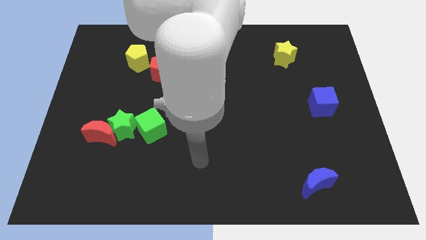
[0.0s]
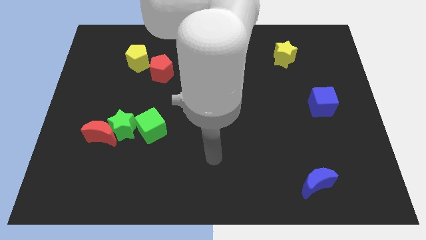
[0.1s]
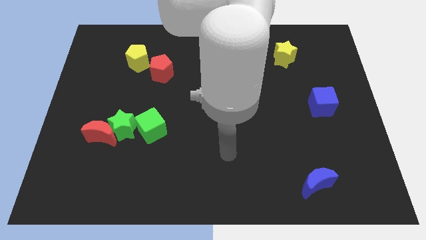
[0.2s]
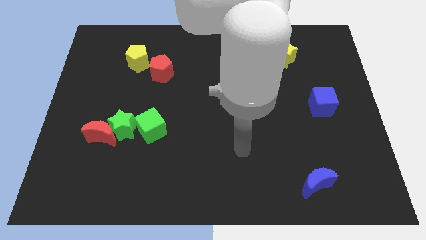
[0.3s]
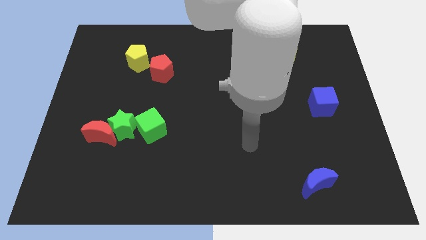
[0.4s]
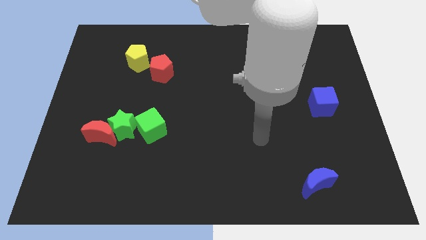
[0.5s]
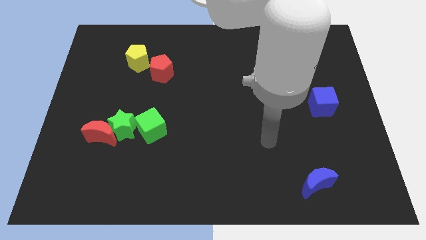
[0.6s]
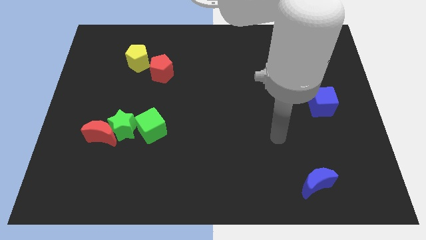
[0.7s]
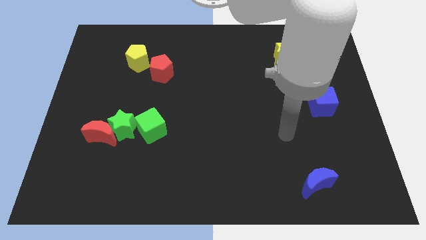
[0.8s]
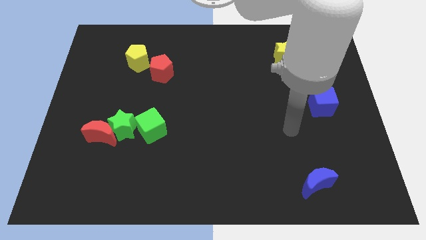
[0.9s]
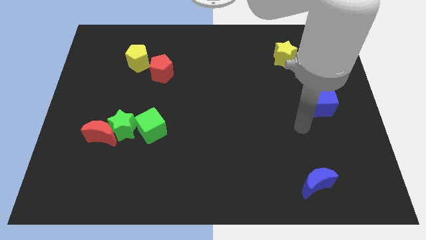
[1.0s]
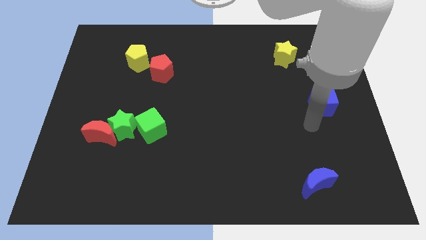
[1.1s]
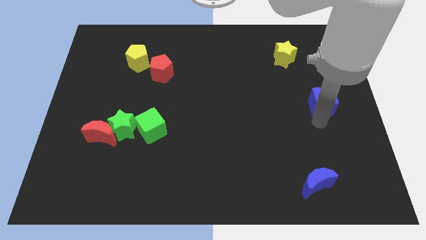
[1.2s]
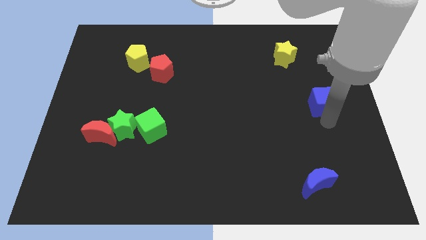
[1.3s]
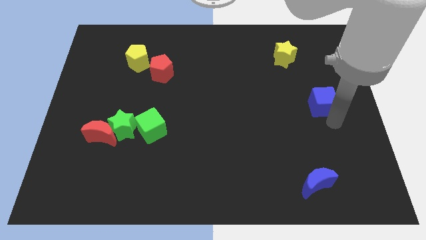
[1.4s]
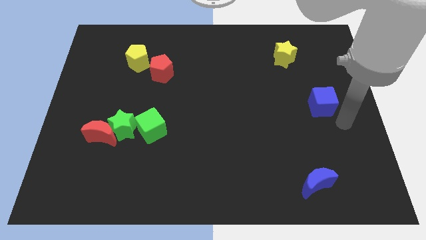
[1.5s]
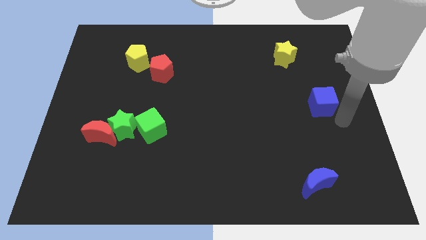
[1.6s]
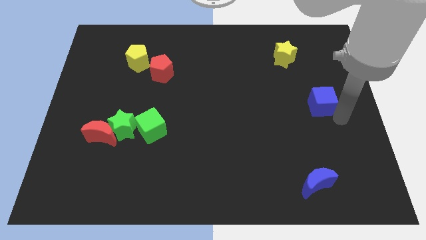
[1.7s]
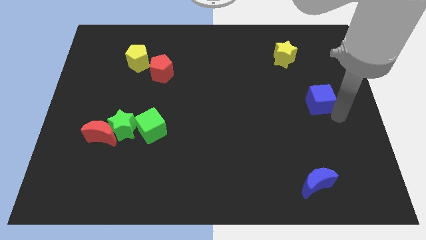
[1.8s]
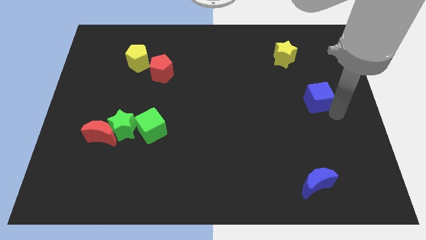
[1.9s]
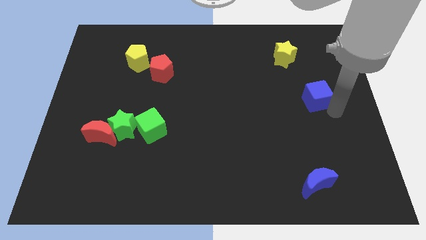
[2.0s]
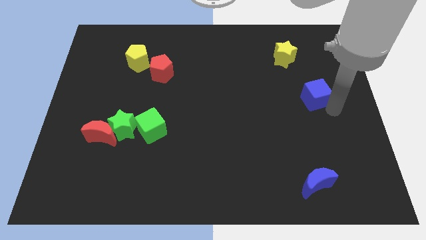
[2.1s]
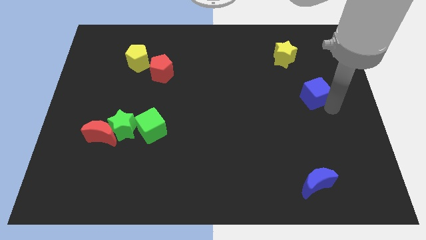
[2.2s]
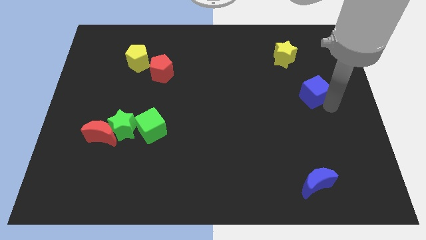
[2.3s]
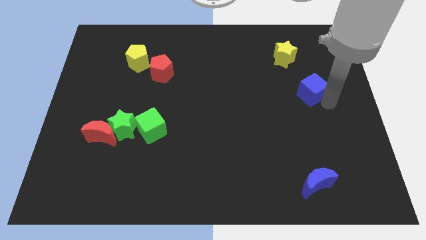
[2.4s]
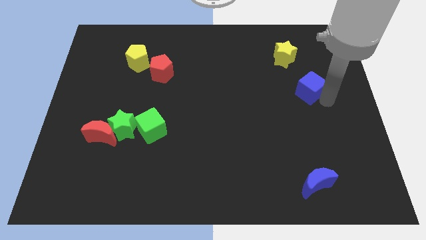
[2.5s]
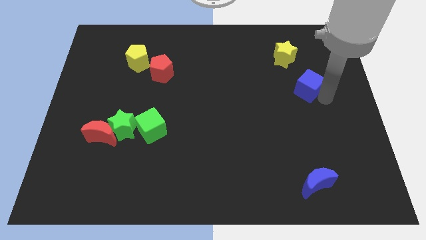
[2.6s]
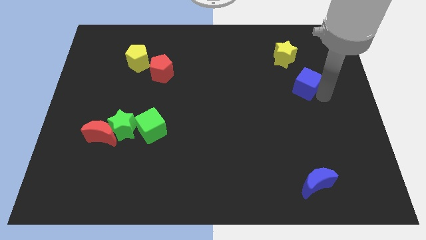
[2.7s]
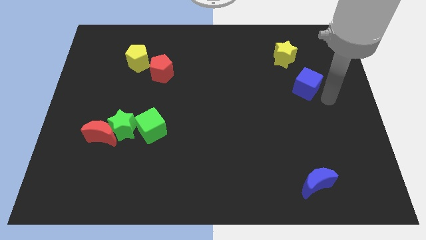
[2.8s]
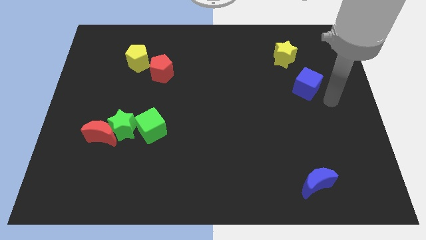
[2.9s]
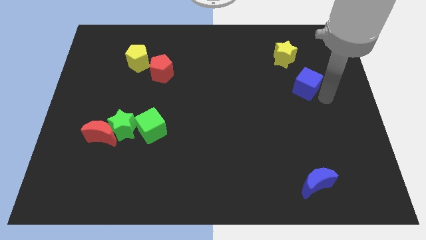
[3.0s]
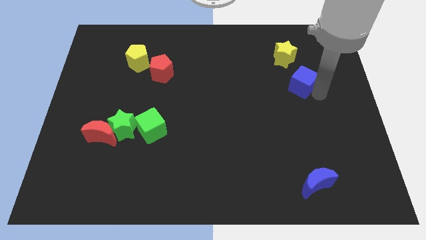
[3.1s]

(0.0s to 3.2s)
push the blue cube slightly up and then to the left

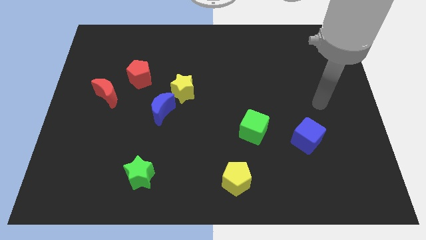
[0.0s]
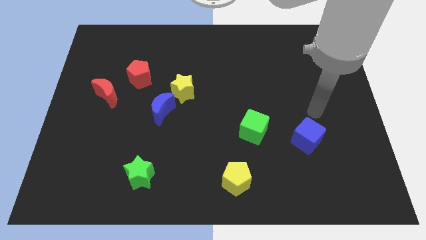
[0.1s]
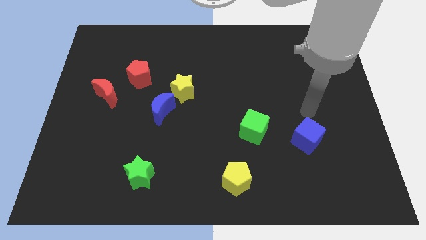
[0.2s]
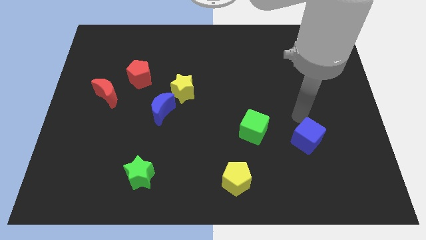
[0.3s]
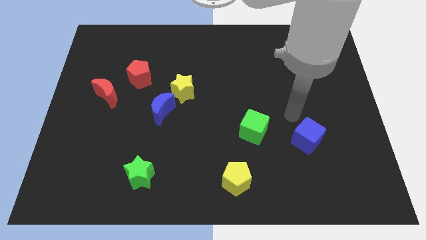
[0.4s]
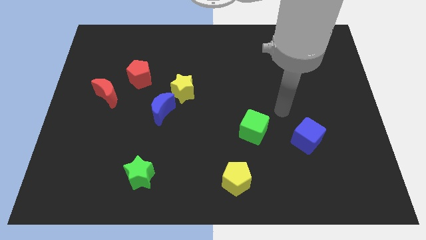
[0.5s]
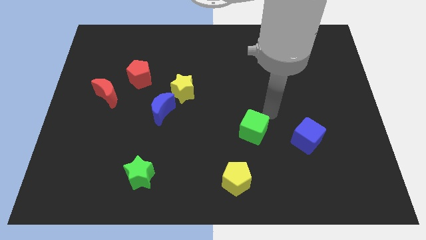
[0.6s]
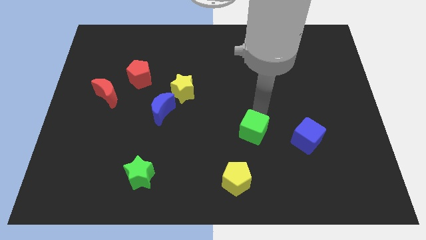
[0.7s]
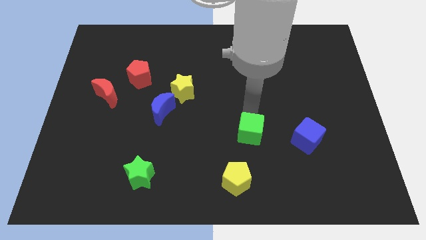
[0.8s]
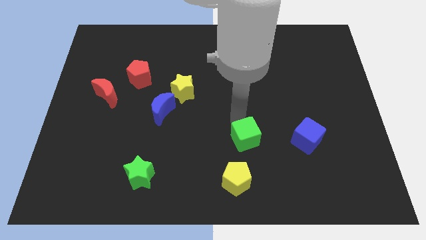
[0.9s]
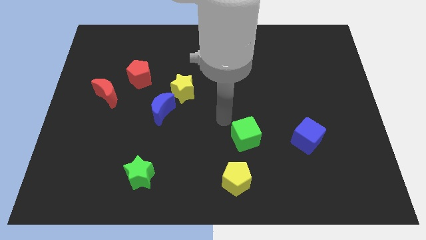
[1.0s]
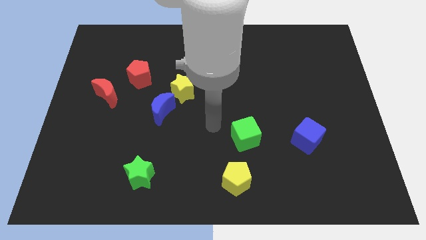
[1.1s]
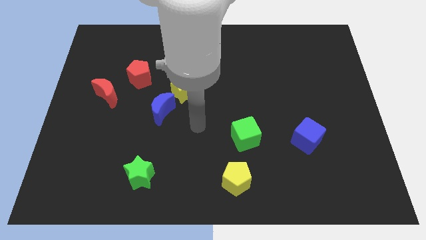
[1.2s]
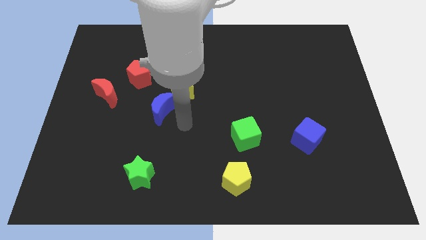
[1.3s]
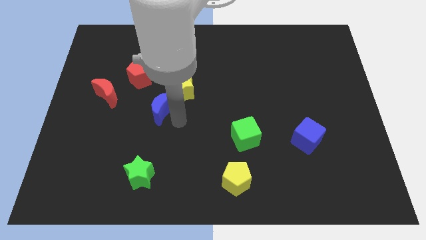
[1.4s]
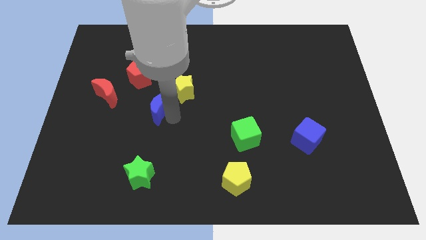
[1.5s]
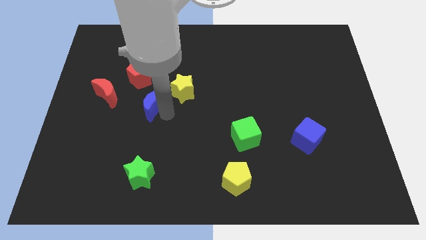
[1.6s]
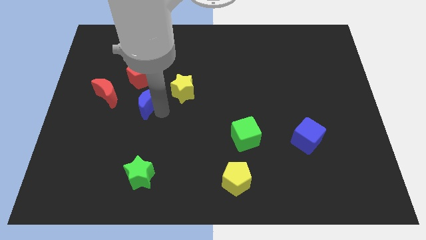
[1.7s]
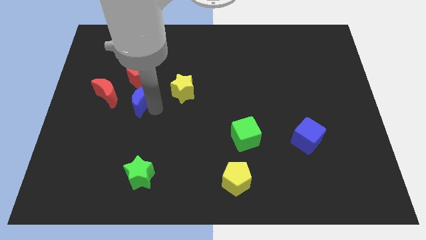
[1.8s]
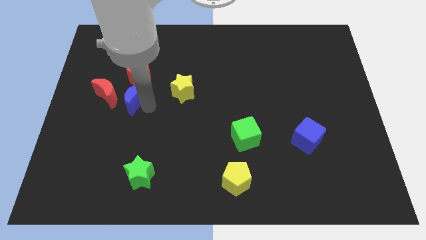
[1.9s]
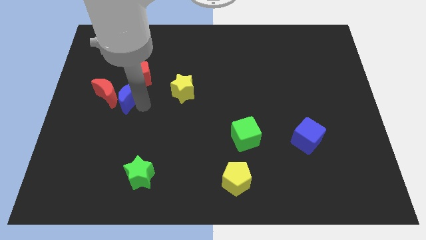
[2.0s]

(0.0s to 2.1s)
slide the blue moon a little bit upwards and left

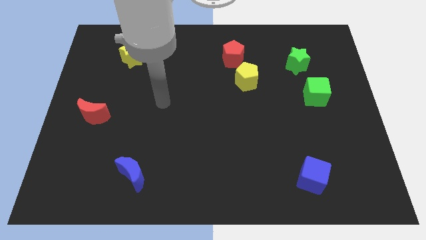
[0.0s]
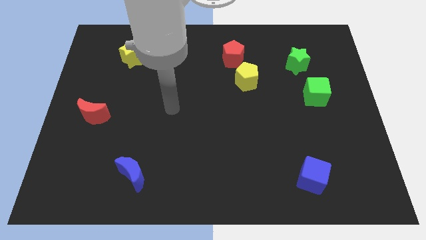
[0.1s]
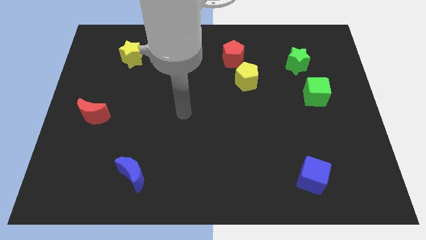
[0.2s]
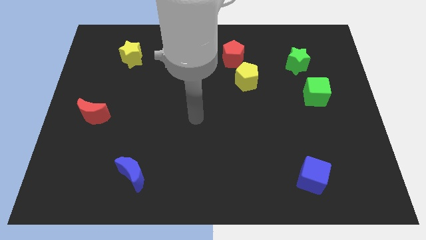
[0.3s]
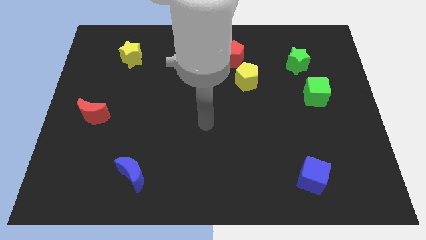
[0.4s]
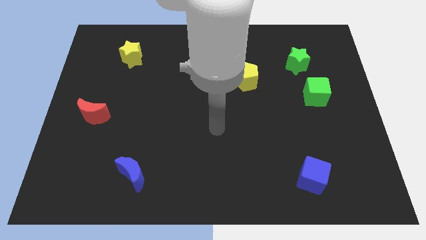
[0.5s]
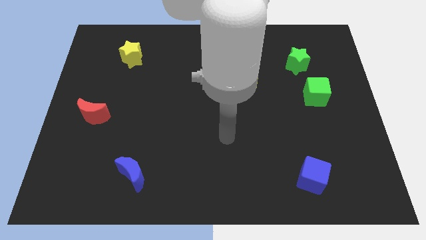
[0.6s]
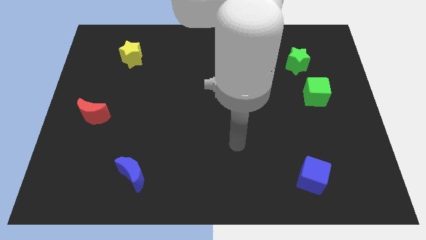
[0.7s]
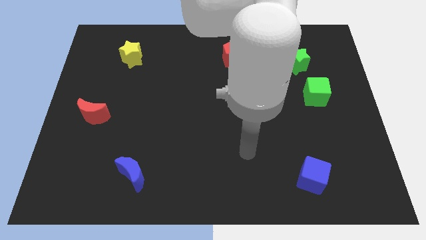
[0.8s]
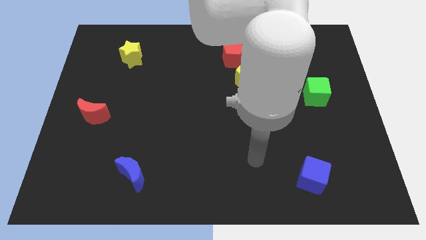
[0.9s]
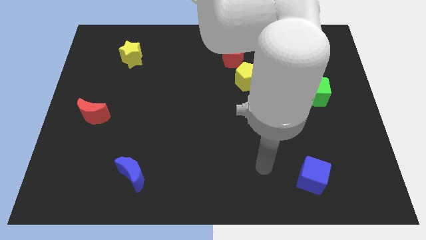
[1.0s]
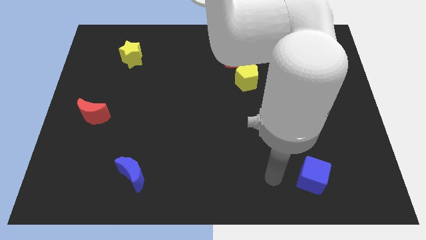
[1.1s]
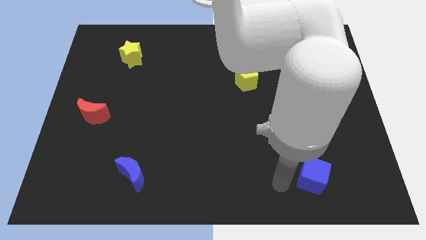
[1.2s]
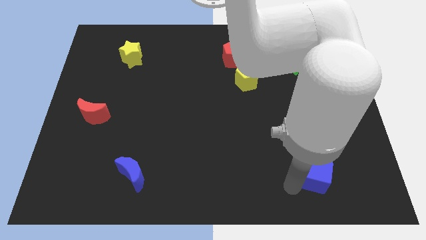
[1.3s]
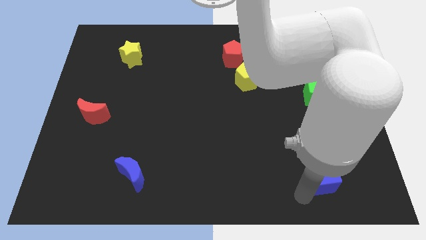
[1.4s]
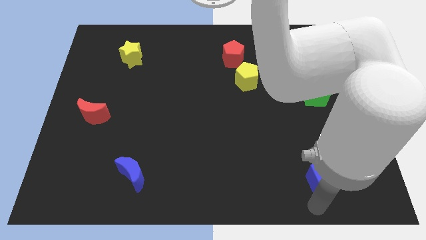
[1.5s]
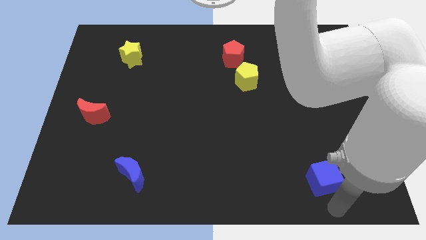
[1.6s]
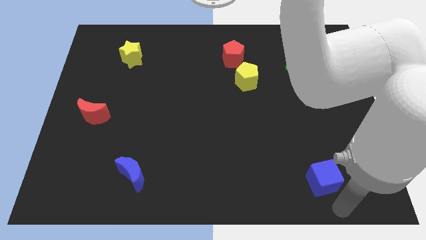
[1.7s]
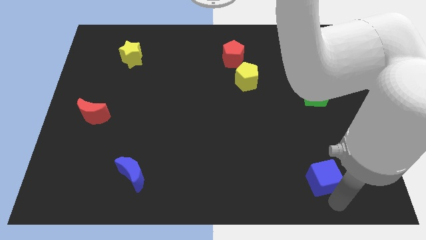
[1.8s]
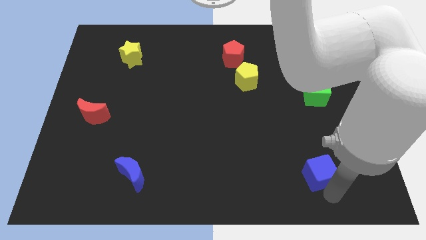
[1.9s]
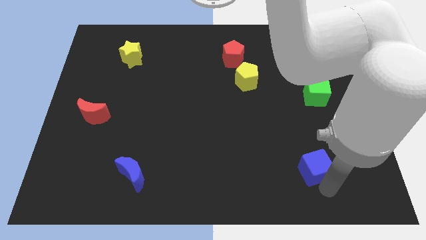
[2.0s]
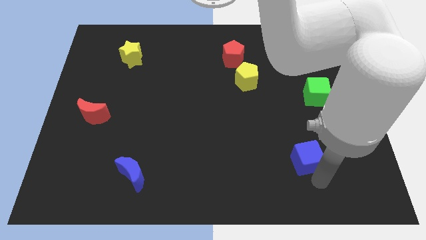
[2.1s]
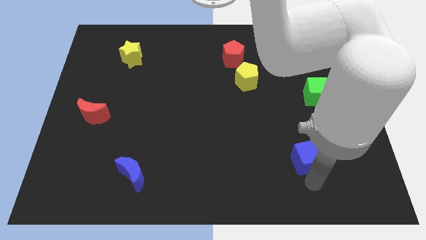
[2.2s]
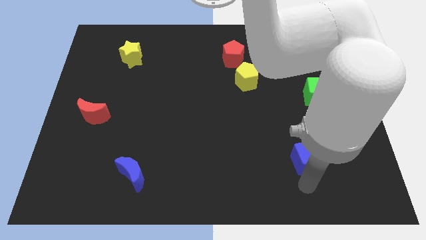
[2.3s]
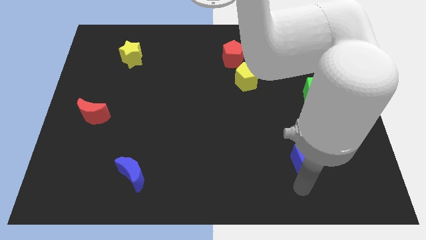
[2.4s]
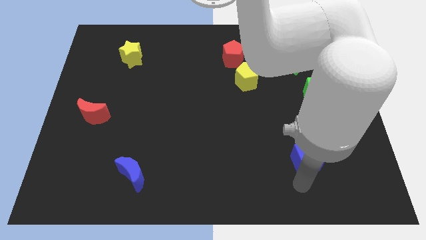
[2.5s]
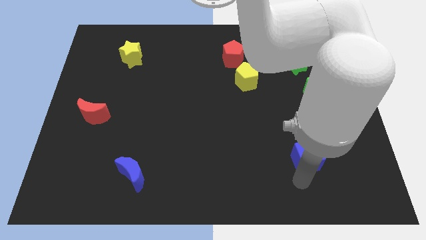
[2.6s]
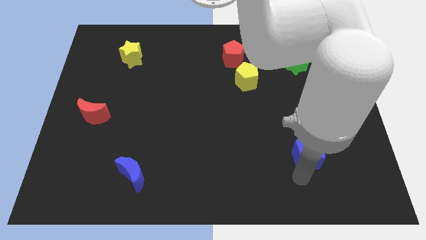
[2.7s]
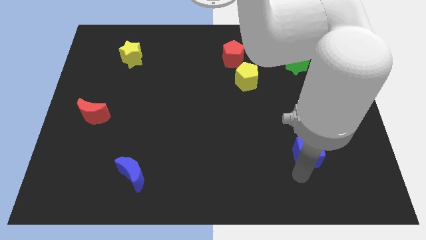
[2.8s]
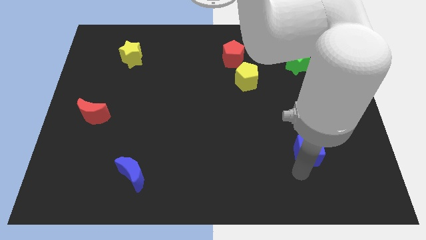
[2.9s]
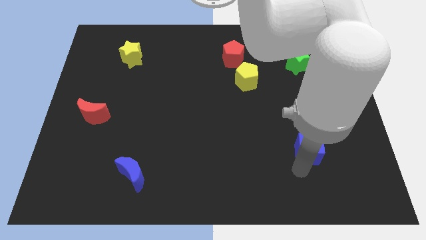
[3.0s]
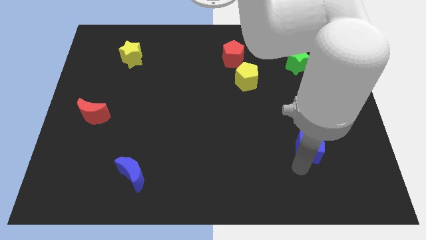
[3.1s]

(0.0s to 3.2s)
slightly move the blue cube upwards
